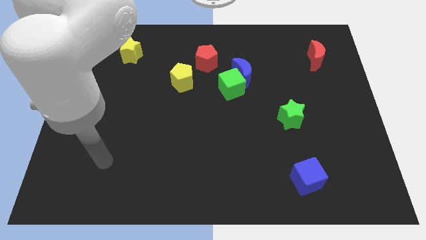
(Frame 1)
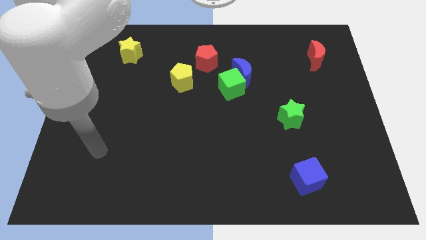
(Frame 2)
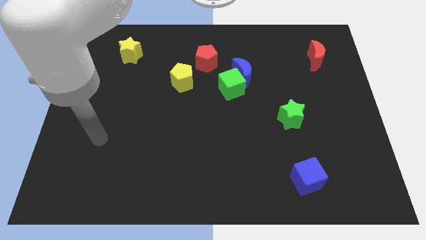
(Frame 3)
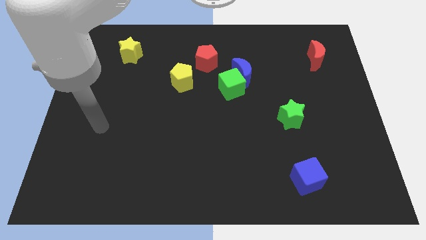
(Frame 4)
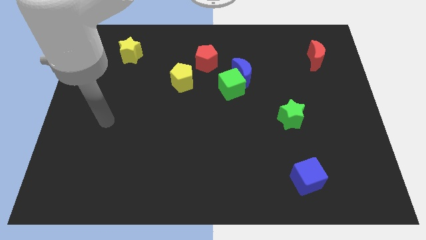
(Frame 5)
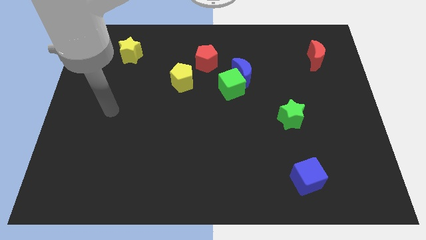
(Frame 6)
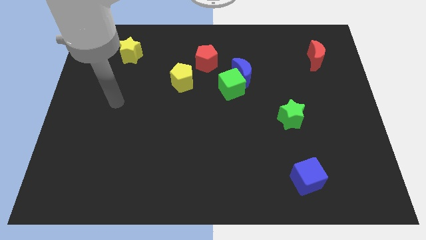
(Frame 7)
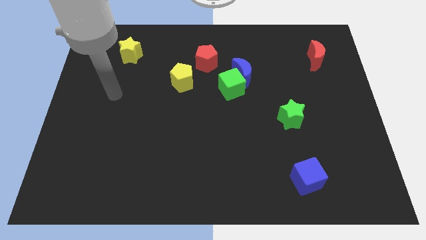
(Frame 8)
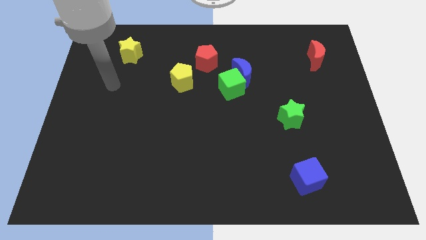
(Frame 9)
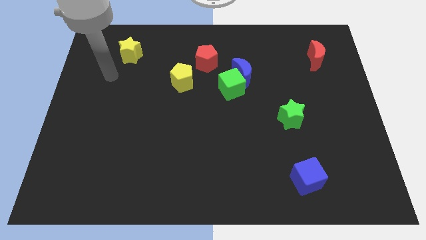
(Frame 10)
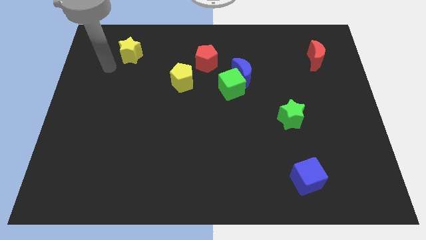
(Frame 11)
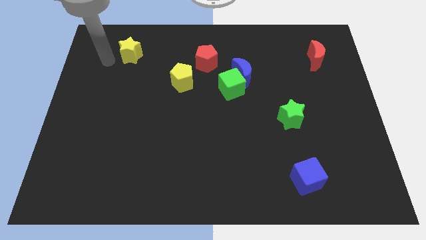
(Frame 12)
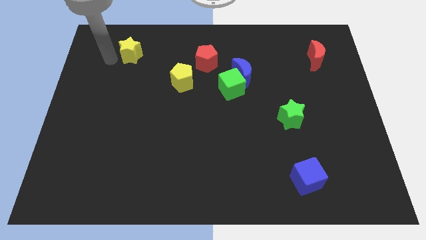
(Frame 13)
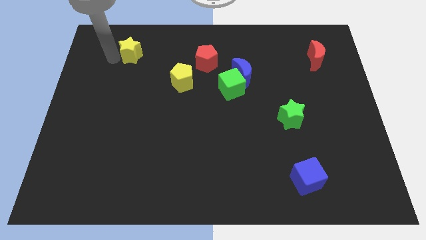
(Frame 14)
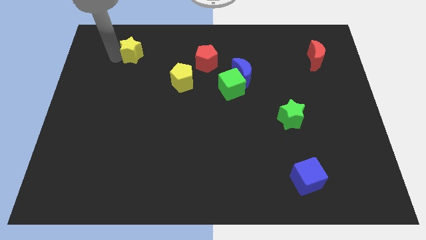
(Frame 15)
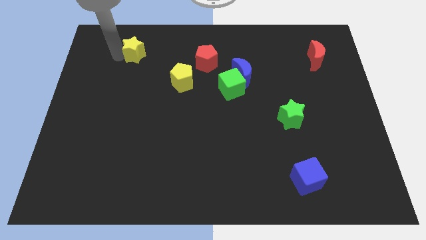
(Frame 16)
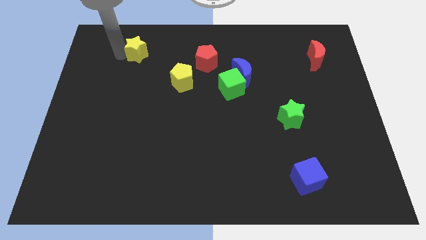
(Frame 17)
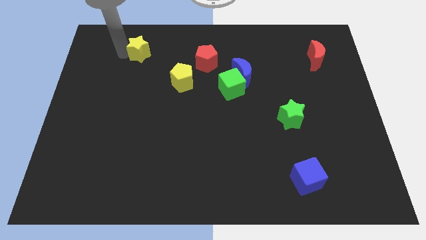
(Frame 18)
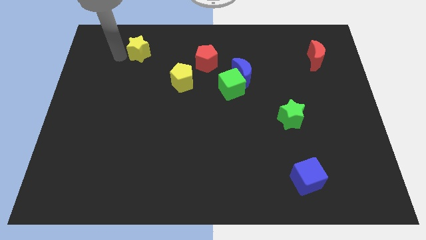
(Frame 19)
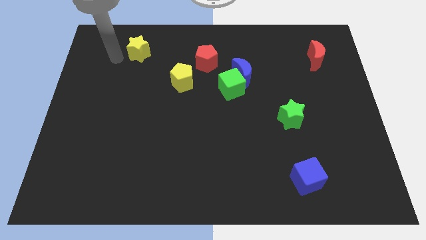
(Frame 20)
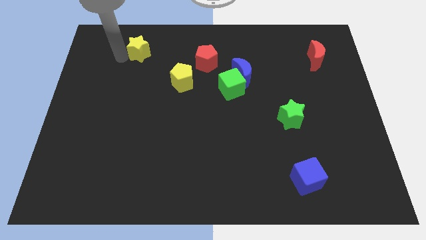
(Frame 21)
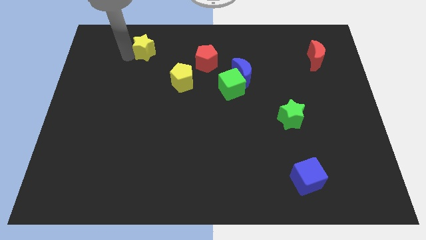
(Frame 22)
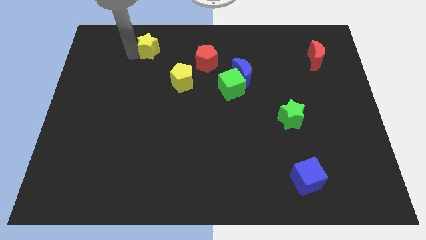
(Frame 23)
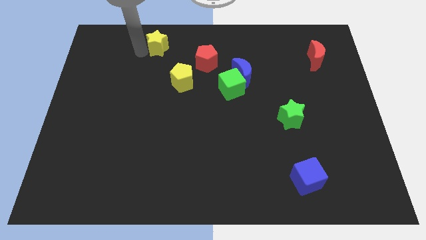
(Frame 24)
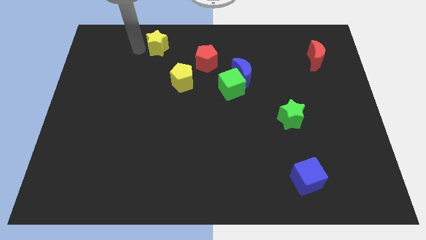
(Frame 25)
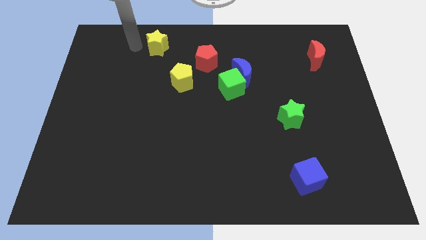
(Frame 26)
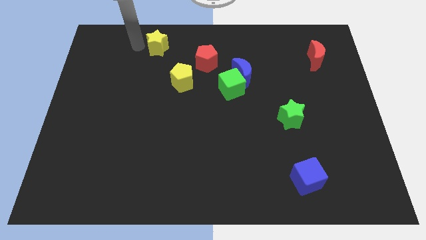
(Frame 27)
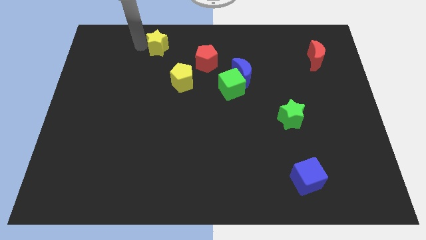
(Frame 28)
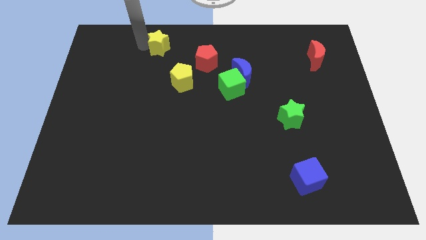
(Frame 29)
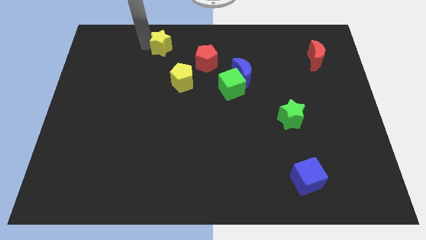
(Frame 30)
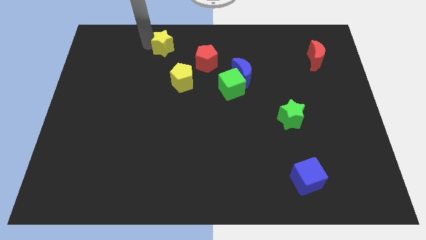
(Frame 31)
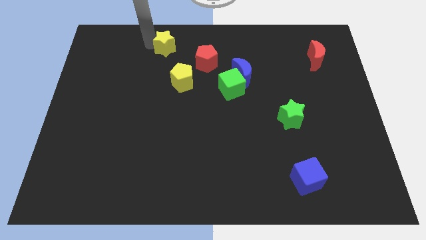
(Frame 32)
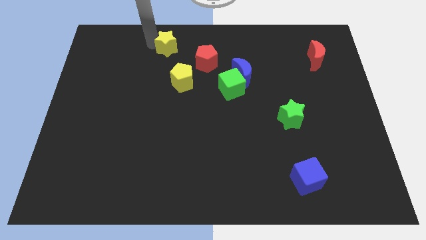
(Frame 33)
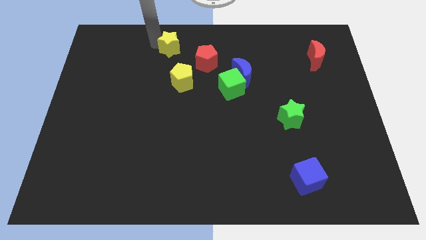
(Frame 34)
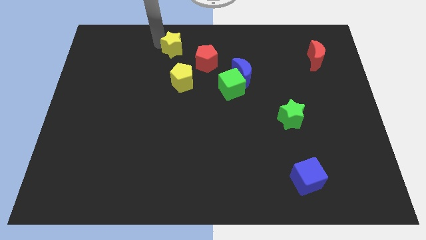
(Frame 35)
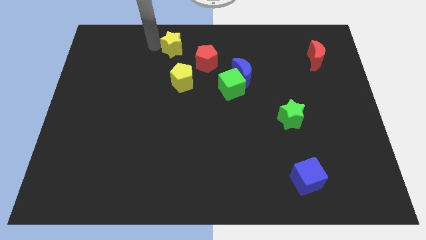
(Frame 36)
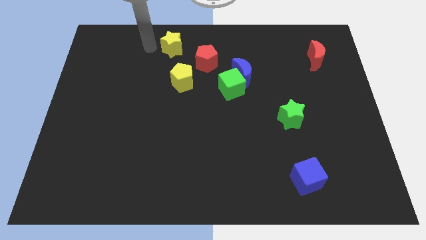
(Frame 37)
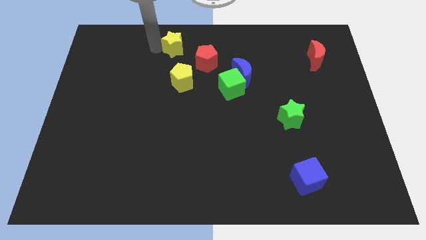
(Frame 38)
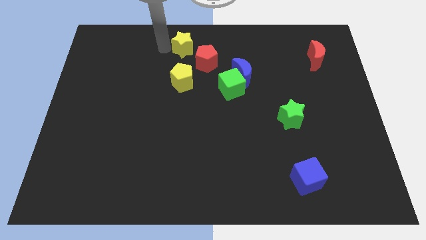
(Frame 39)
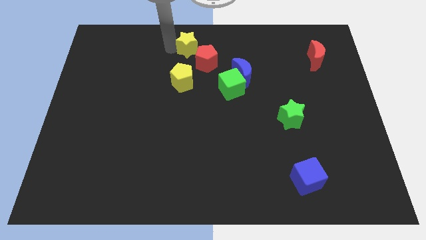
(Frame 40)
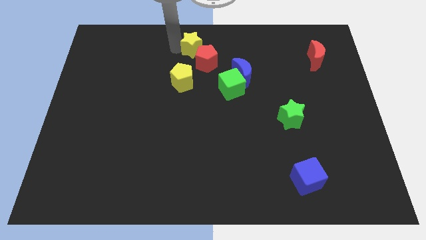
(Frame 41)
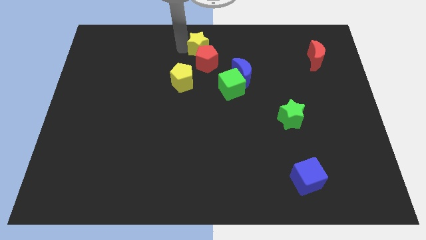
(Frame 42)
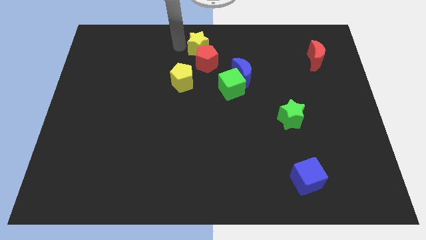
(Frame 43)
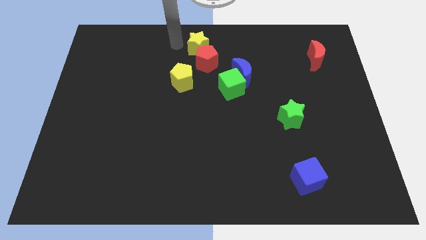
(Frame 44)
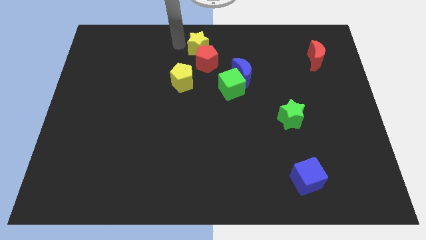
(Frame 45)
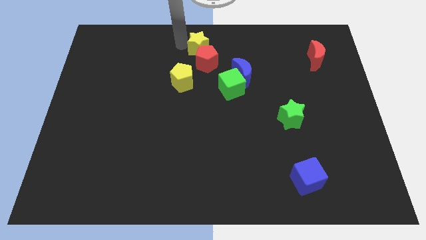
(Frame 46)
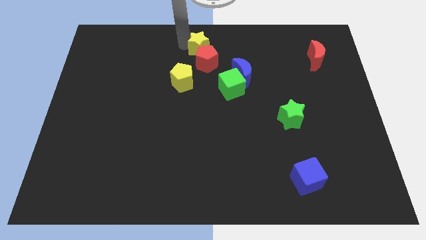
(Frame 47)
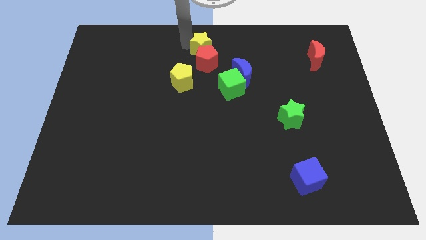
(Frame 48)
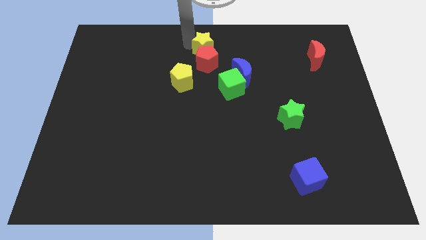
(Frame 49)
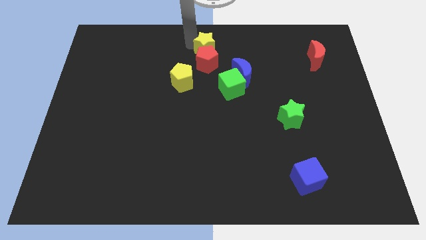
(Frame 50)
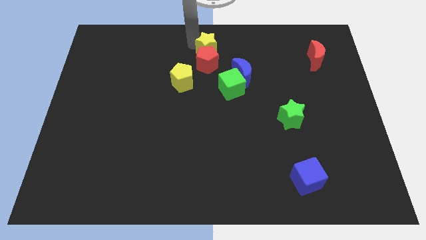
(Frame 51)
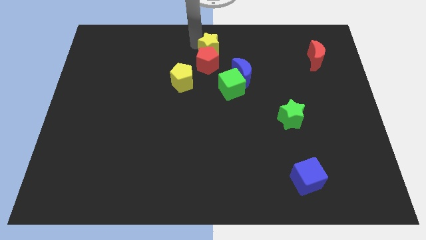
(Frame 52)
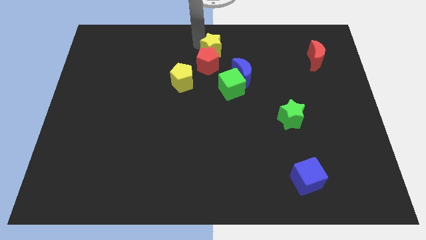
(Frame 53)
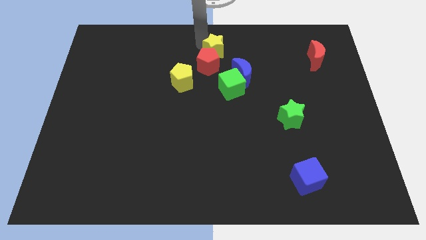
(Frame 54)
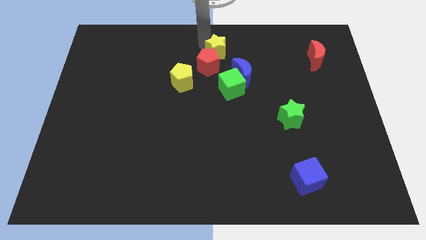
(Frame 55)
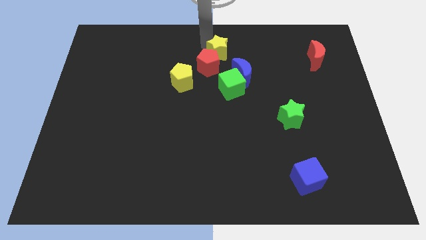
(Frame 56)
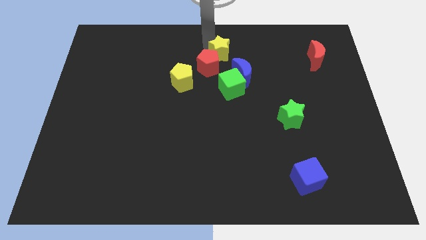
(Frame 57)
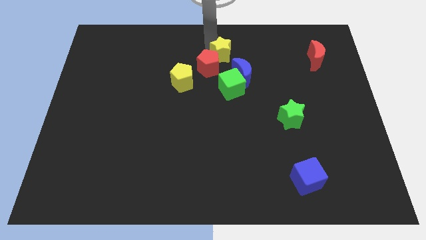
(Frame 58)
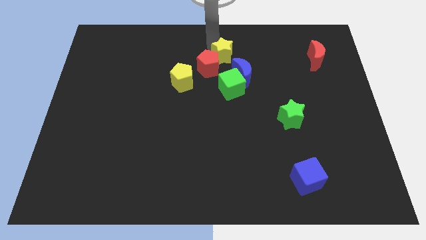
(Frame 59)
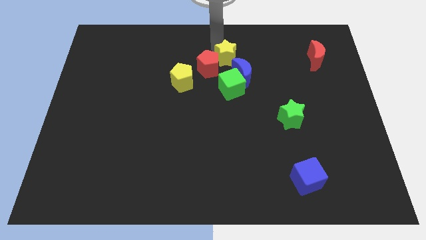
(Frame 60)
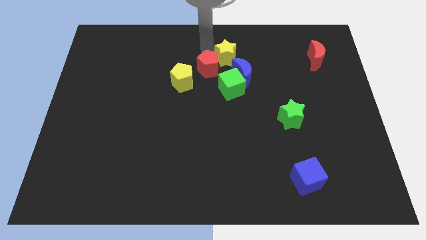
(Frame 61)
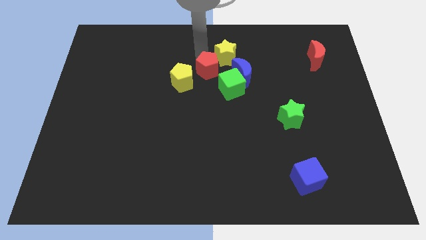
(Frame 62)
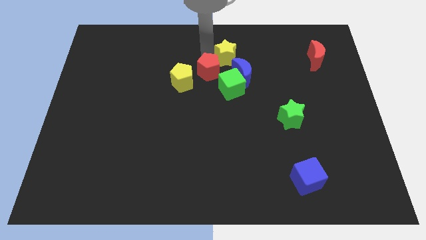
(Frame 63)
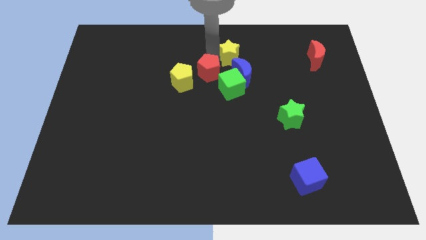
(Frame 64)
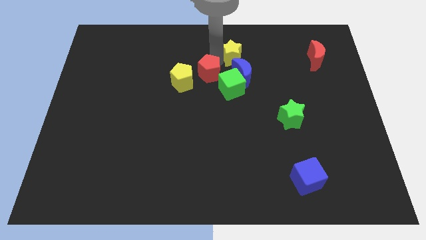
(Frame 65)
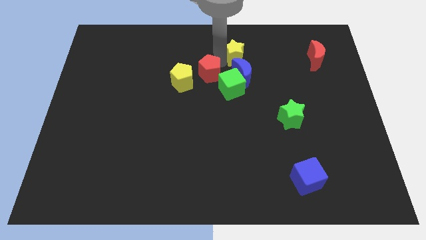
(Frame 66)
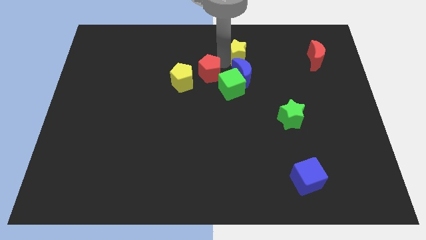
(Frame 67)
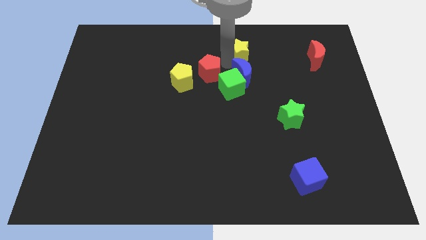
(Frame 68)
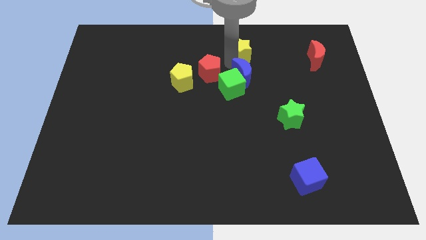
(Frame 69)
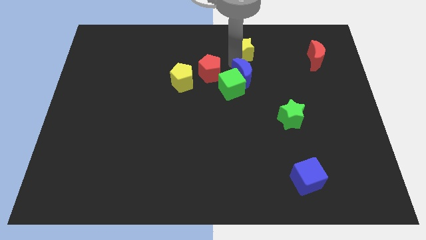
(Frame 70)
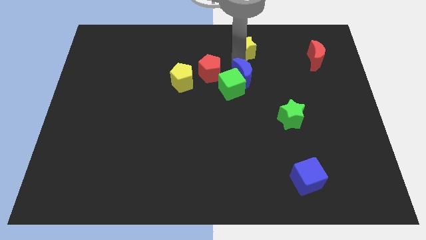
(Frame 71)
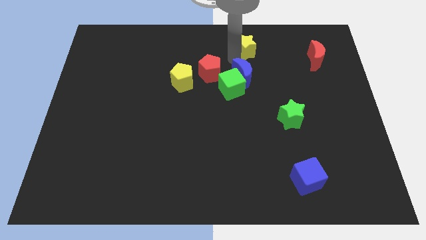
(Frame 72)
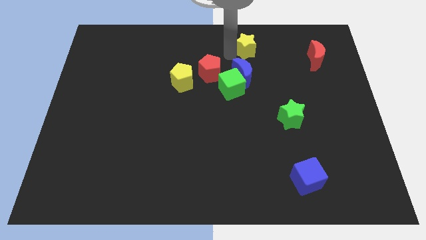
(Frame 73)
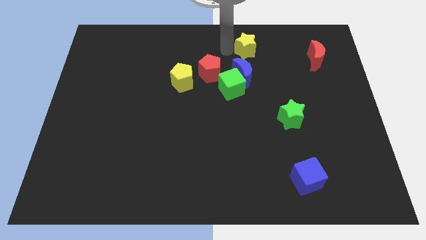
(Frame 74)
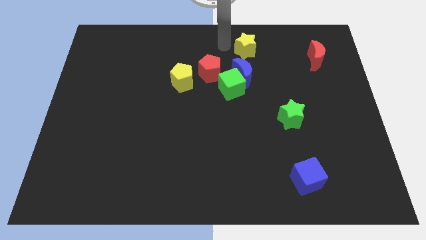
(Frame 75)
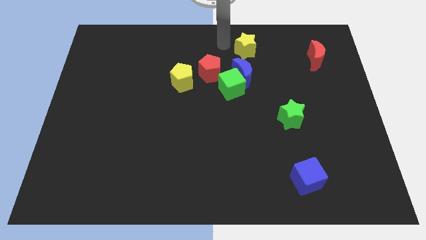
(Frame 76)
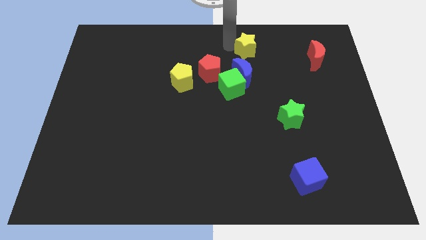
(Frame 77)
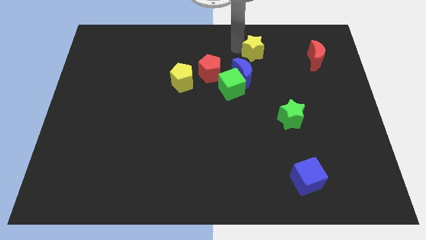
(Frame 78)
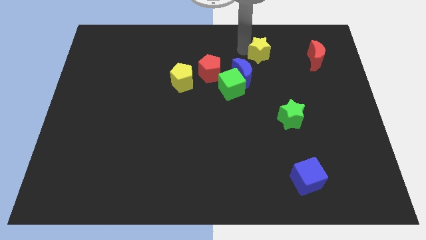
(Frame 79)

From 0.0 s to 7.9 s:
put the yellow star to the left of the red moon
